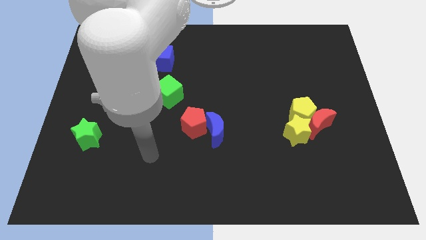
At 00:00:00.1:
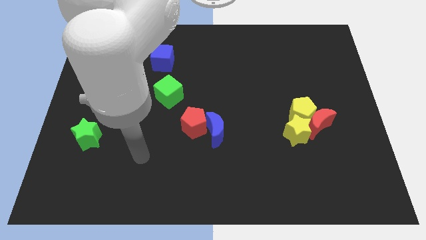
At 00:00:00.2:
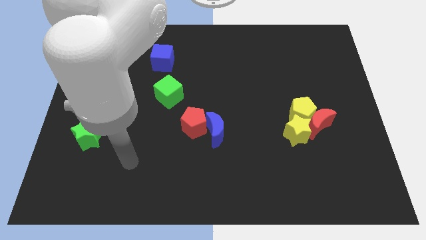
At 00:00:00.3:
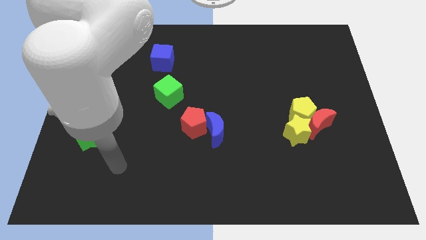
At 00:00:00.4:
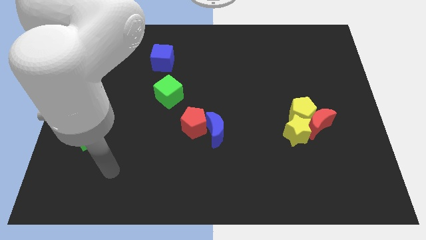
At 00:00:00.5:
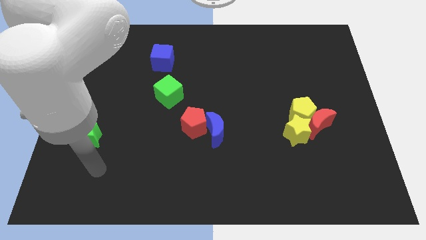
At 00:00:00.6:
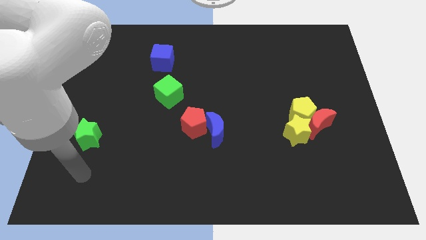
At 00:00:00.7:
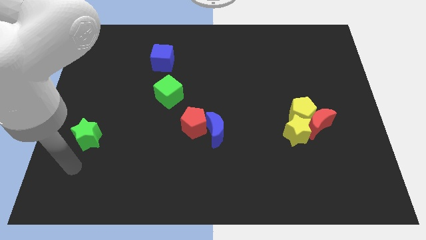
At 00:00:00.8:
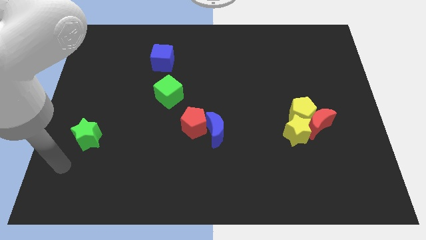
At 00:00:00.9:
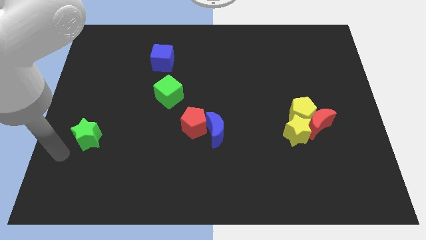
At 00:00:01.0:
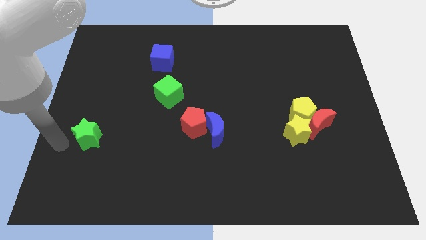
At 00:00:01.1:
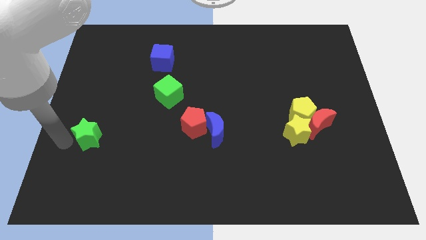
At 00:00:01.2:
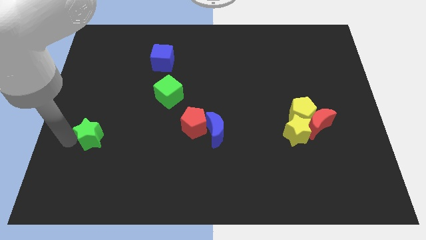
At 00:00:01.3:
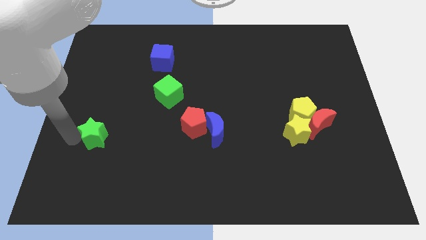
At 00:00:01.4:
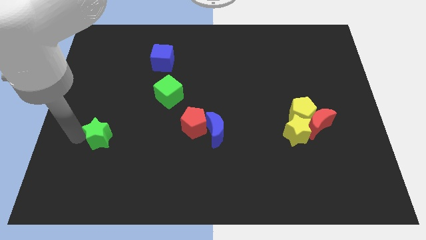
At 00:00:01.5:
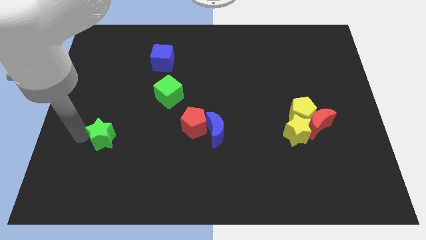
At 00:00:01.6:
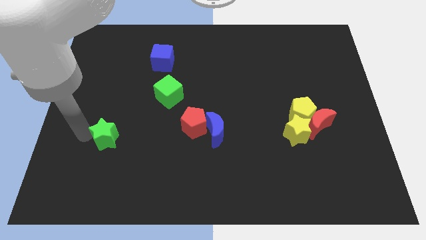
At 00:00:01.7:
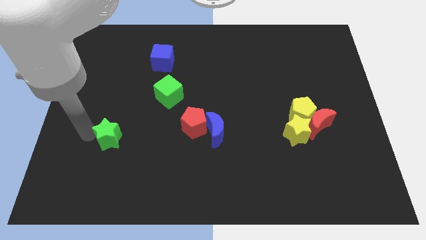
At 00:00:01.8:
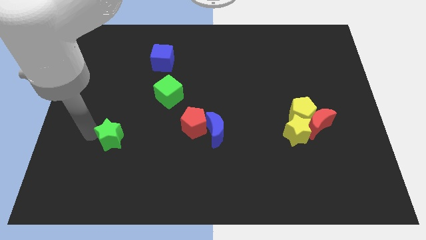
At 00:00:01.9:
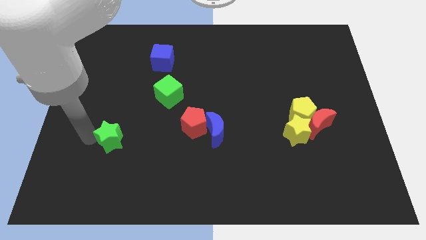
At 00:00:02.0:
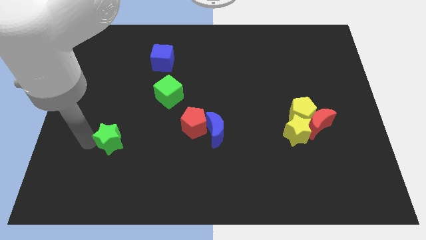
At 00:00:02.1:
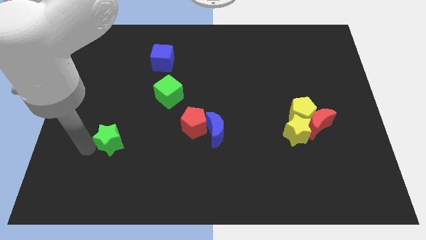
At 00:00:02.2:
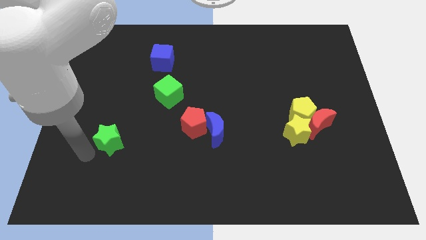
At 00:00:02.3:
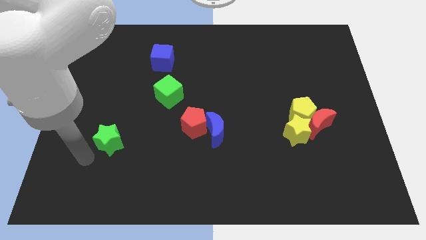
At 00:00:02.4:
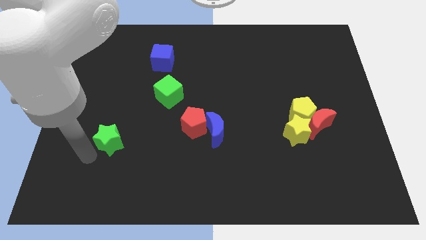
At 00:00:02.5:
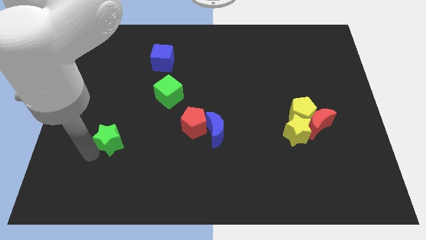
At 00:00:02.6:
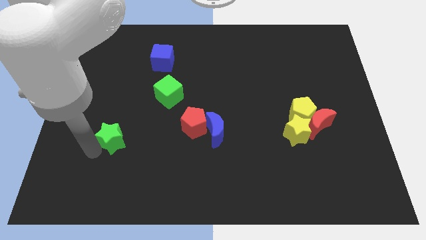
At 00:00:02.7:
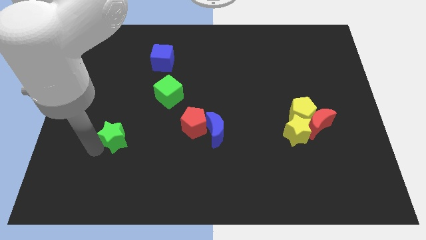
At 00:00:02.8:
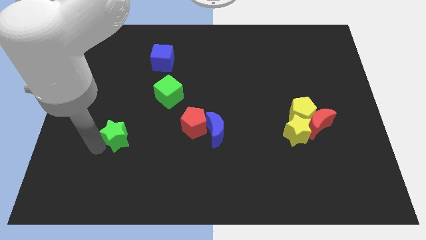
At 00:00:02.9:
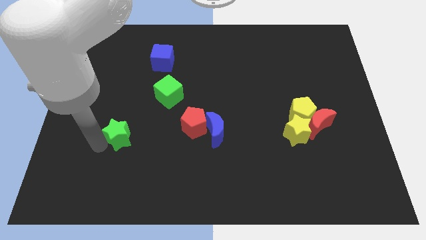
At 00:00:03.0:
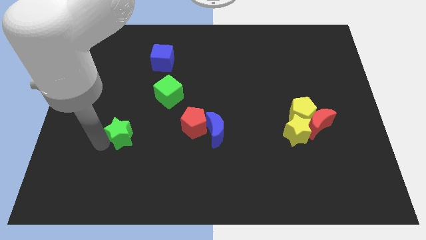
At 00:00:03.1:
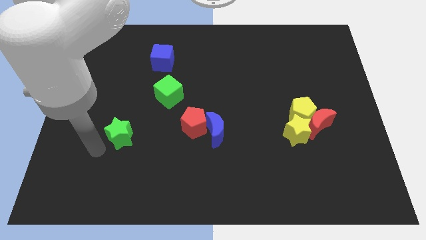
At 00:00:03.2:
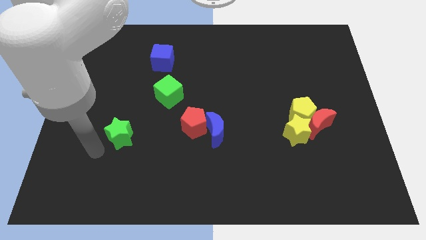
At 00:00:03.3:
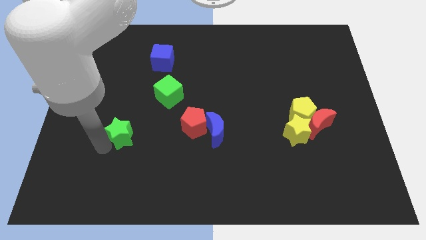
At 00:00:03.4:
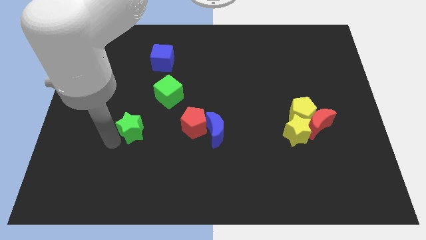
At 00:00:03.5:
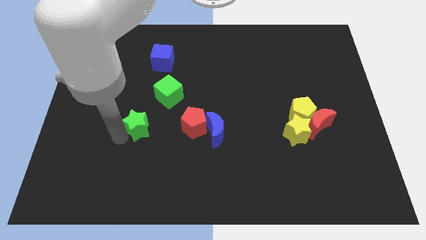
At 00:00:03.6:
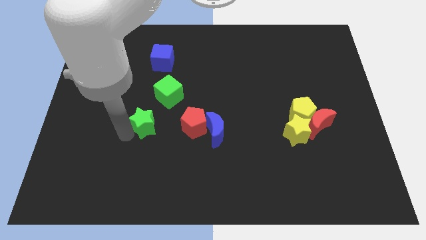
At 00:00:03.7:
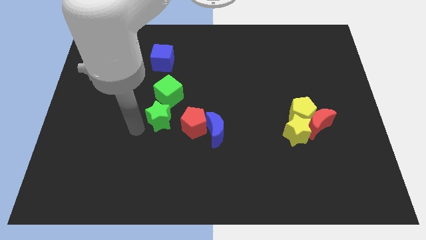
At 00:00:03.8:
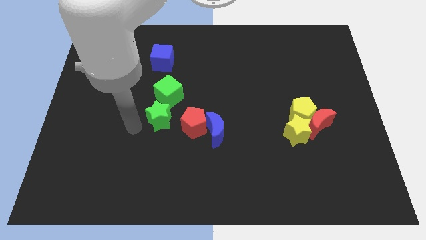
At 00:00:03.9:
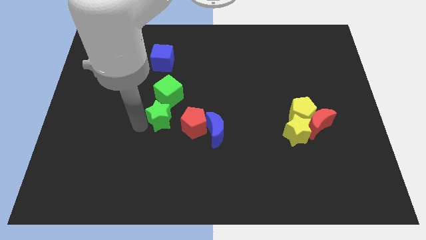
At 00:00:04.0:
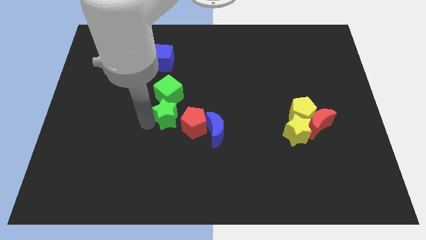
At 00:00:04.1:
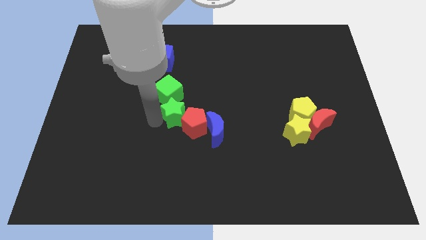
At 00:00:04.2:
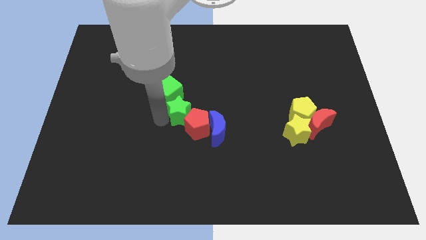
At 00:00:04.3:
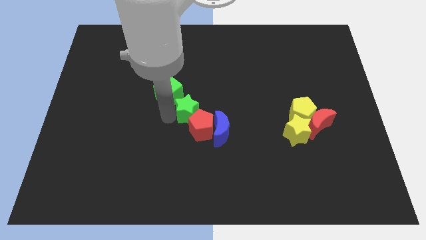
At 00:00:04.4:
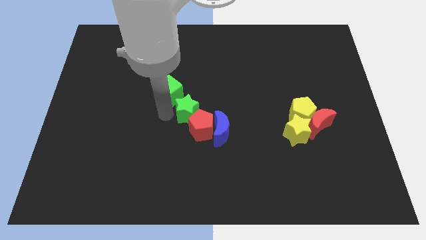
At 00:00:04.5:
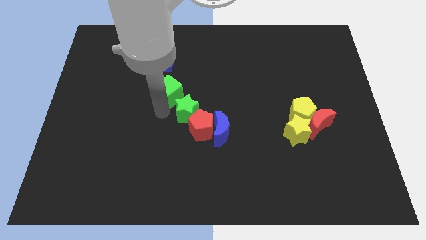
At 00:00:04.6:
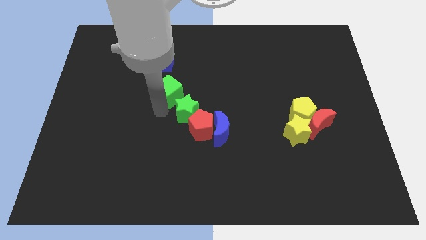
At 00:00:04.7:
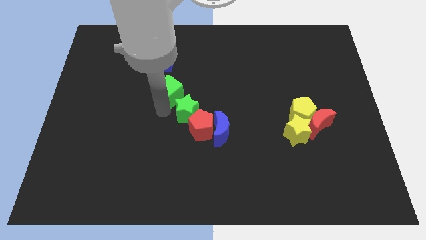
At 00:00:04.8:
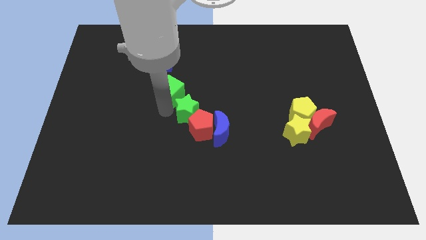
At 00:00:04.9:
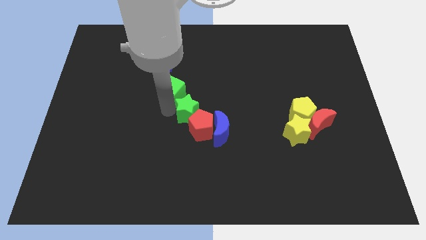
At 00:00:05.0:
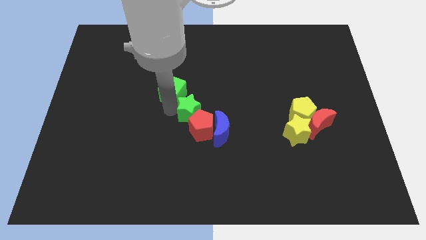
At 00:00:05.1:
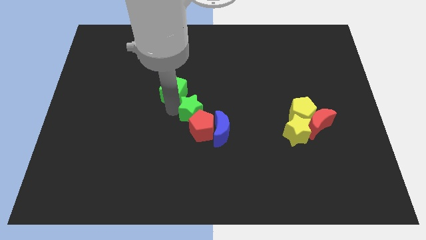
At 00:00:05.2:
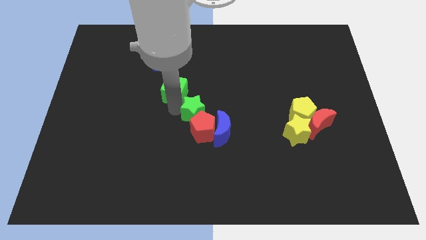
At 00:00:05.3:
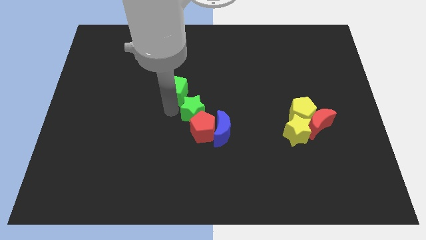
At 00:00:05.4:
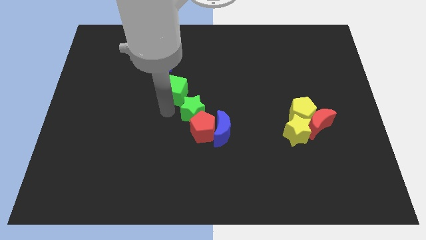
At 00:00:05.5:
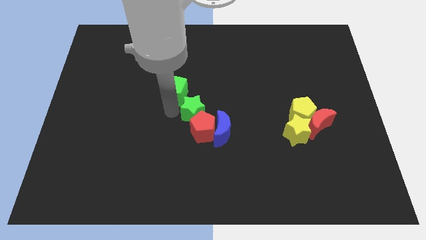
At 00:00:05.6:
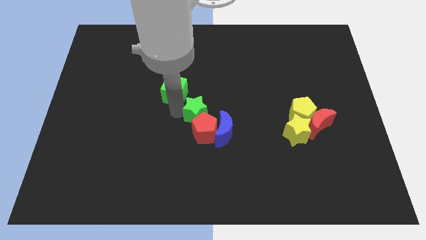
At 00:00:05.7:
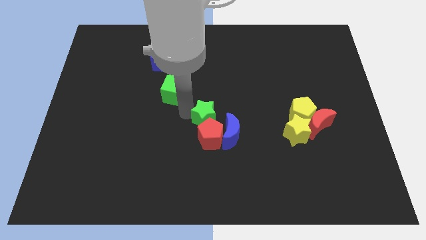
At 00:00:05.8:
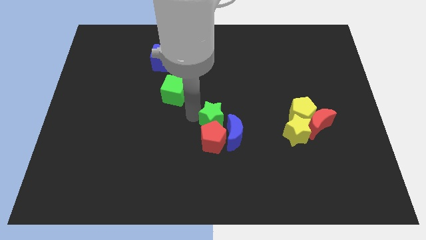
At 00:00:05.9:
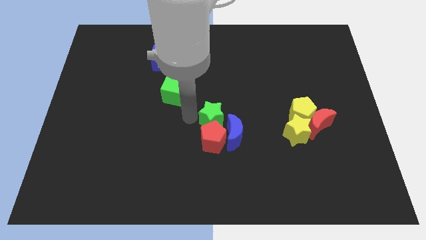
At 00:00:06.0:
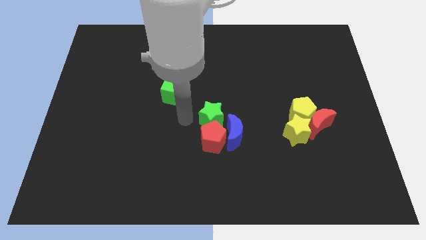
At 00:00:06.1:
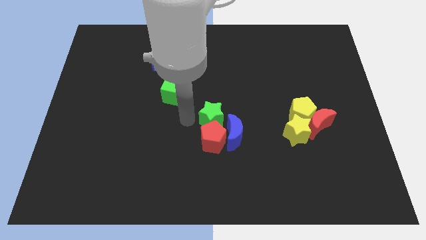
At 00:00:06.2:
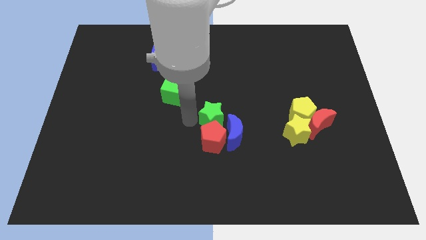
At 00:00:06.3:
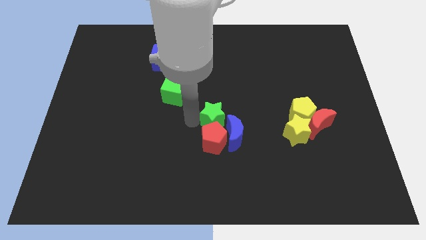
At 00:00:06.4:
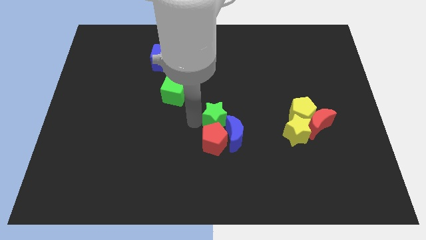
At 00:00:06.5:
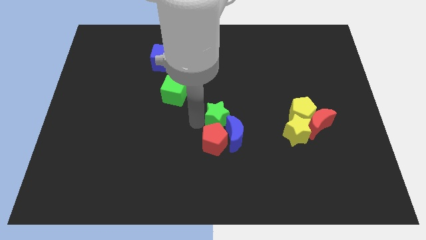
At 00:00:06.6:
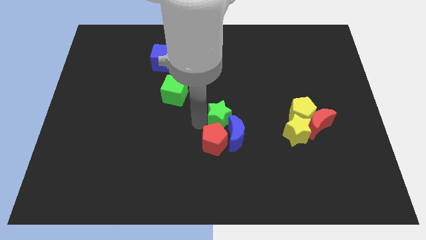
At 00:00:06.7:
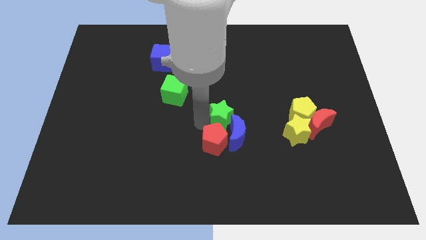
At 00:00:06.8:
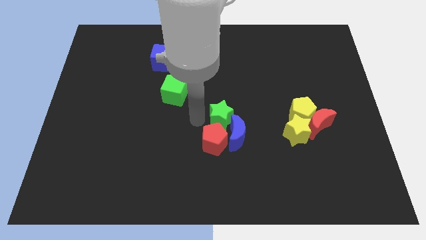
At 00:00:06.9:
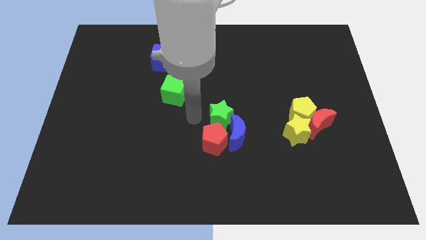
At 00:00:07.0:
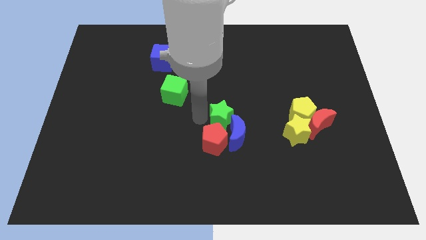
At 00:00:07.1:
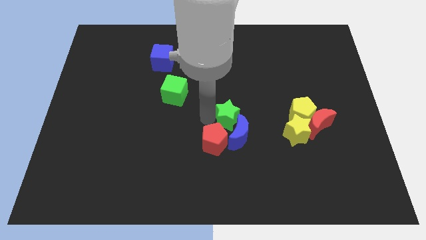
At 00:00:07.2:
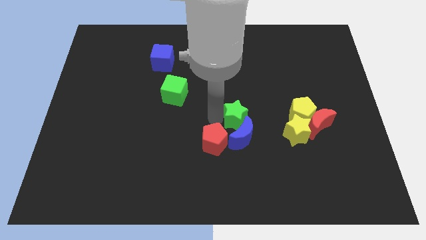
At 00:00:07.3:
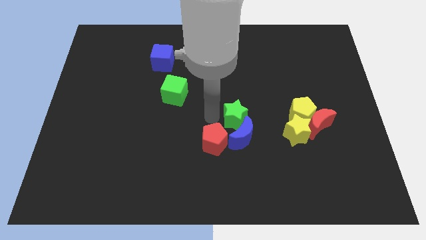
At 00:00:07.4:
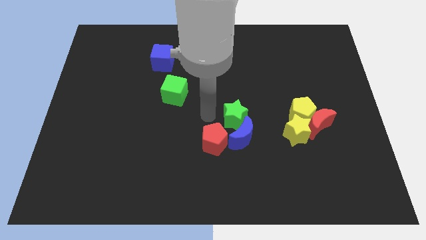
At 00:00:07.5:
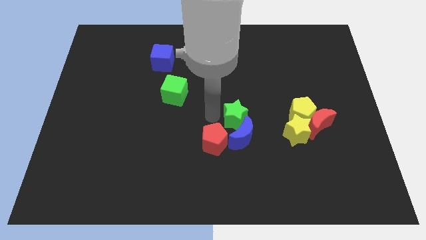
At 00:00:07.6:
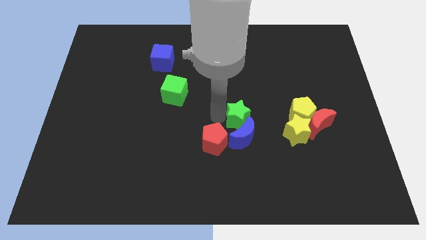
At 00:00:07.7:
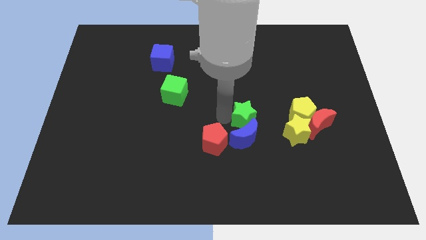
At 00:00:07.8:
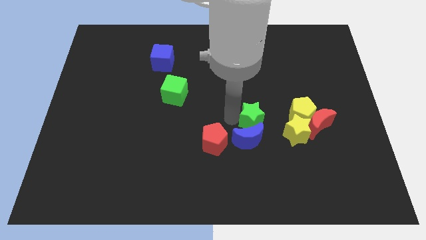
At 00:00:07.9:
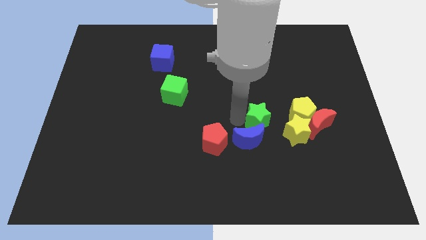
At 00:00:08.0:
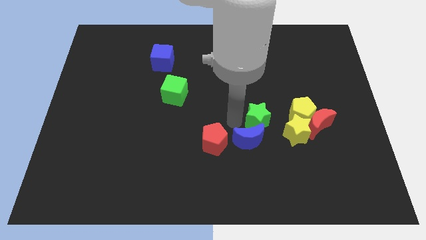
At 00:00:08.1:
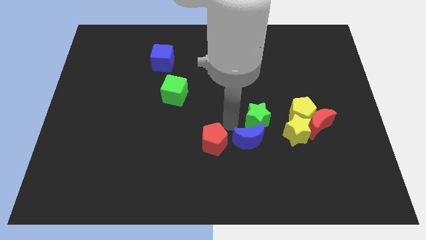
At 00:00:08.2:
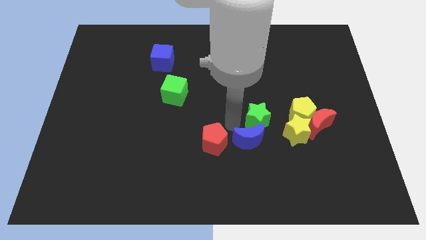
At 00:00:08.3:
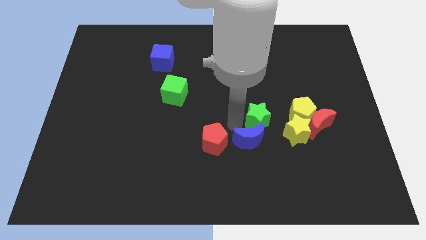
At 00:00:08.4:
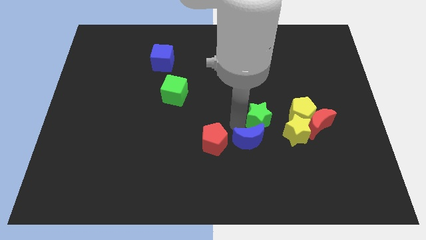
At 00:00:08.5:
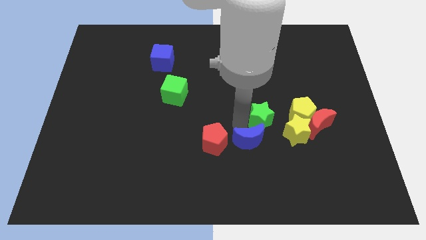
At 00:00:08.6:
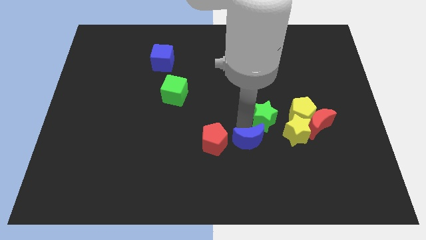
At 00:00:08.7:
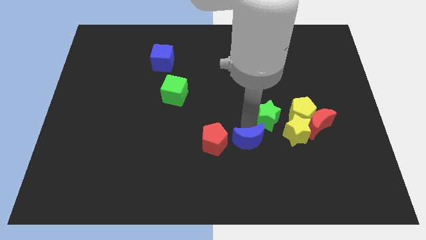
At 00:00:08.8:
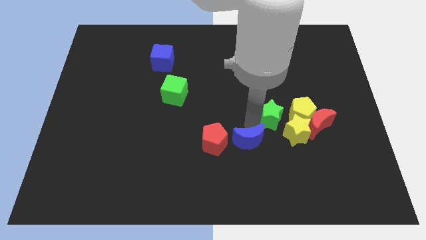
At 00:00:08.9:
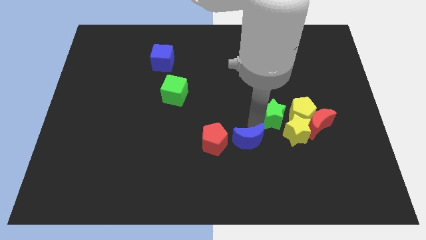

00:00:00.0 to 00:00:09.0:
put the green star next to the yellow pentagon
